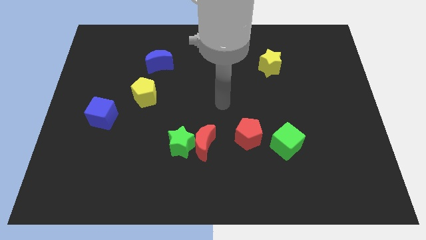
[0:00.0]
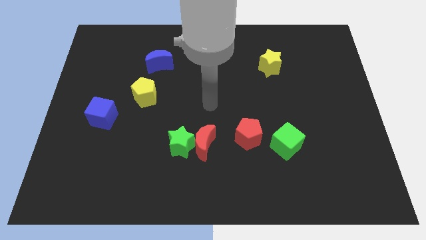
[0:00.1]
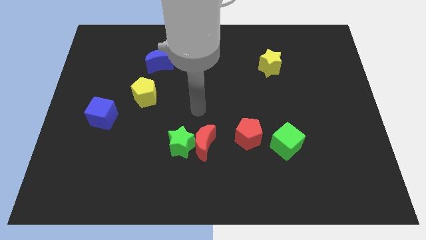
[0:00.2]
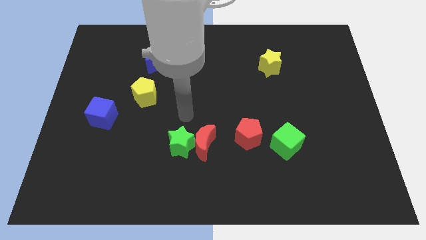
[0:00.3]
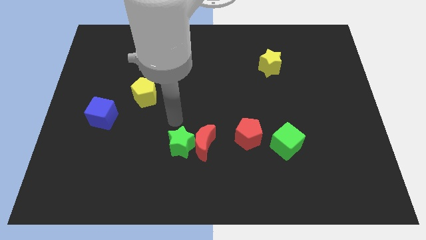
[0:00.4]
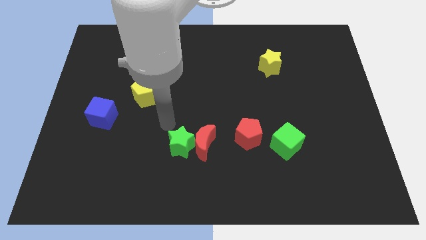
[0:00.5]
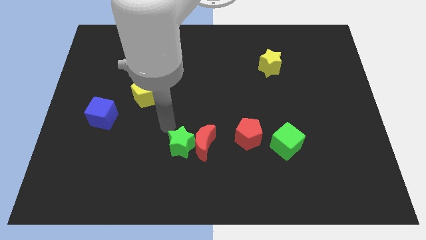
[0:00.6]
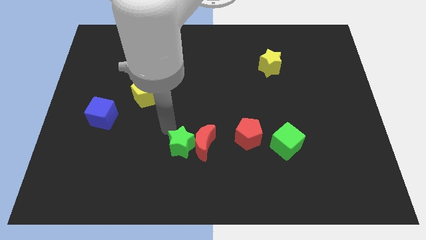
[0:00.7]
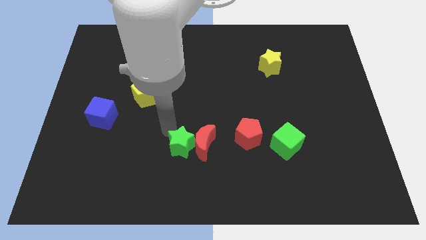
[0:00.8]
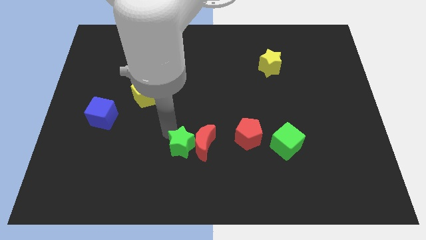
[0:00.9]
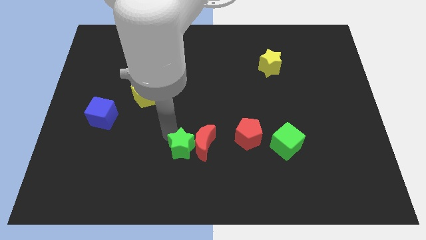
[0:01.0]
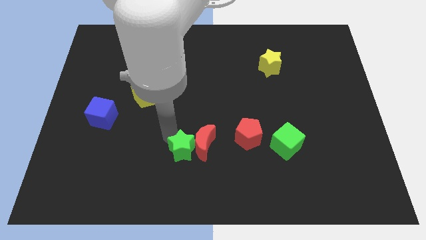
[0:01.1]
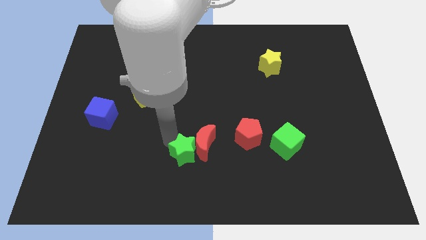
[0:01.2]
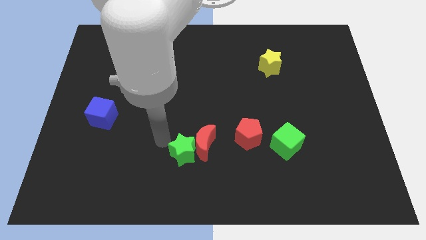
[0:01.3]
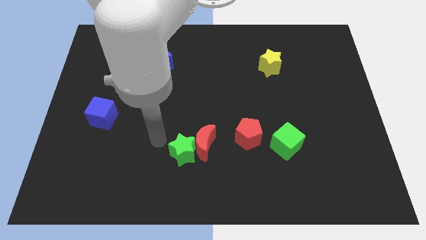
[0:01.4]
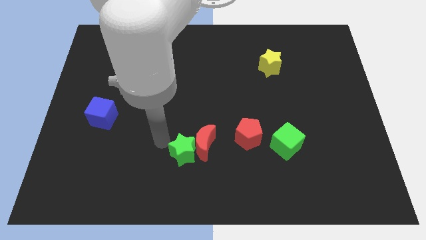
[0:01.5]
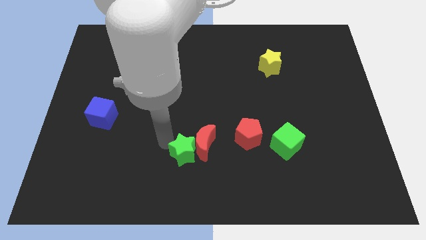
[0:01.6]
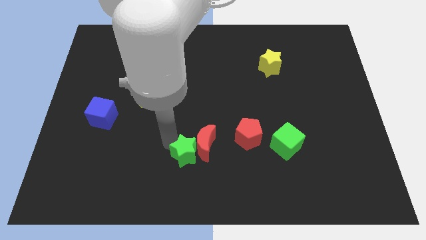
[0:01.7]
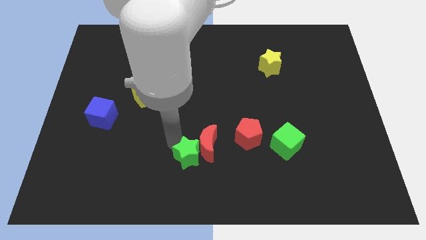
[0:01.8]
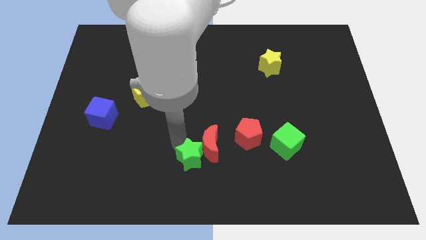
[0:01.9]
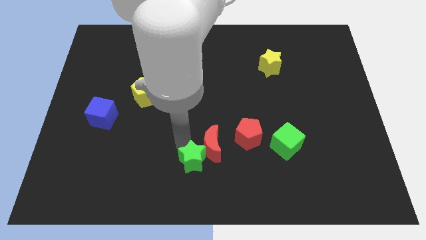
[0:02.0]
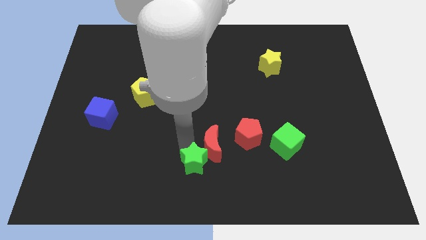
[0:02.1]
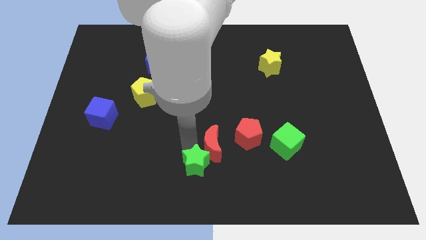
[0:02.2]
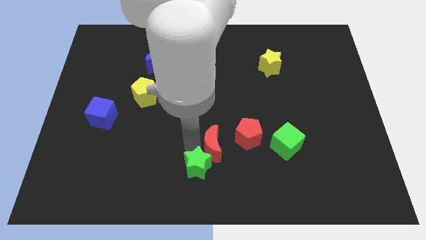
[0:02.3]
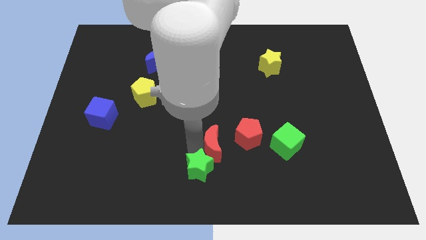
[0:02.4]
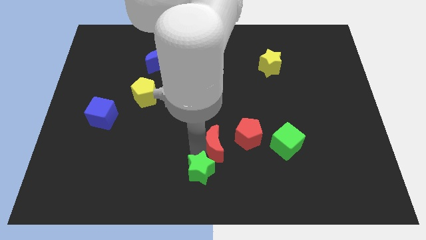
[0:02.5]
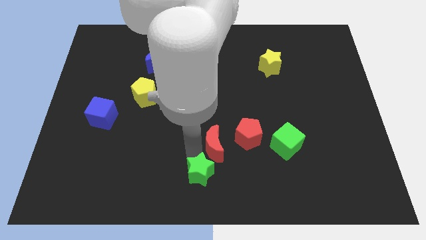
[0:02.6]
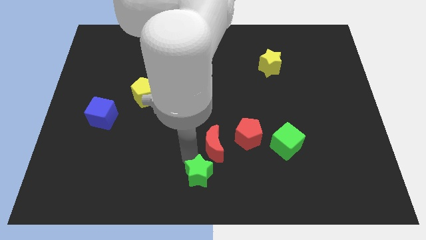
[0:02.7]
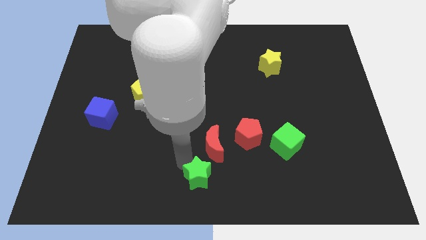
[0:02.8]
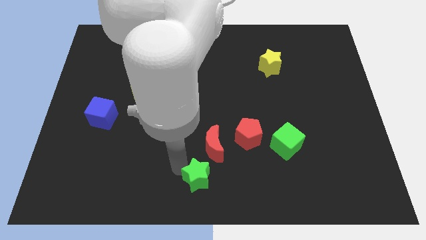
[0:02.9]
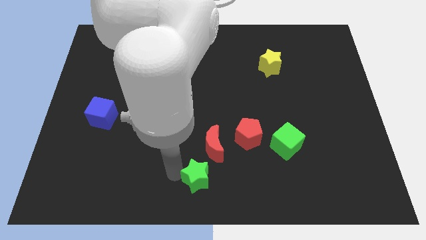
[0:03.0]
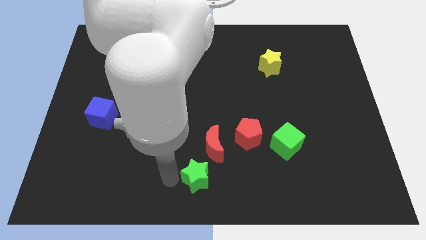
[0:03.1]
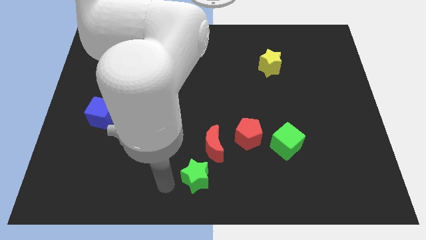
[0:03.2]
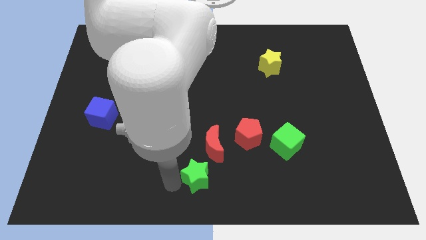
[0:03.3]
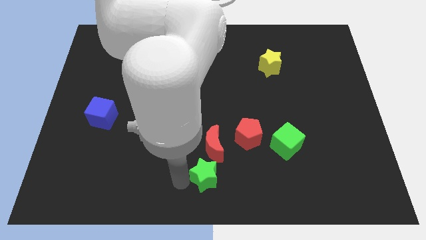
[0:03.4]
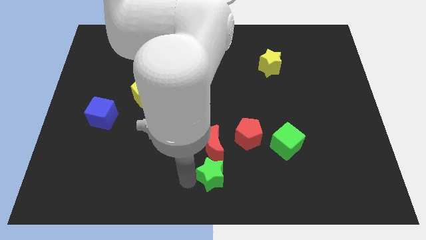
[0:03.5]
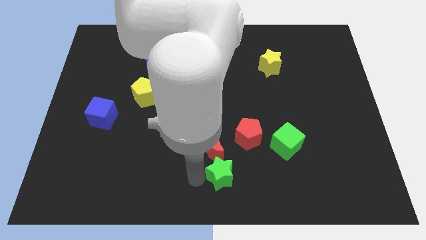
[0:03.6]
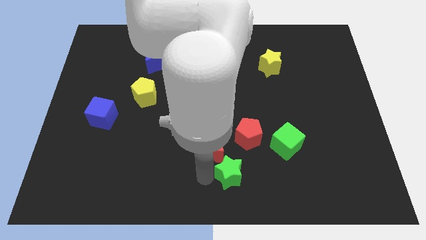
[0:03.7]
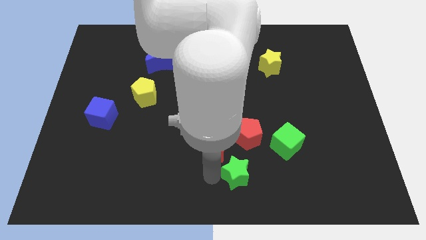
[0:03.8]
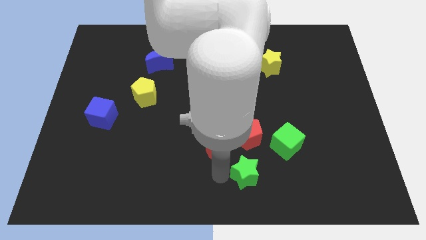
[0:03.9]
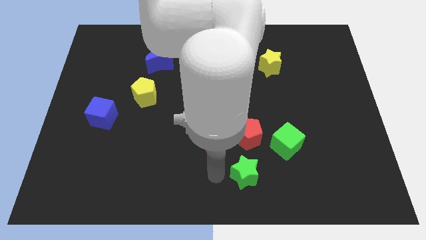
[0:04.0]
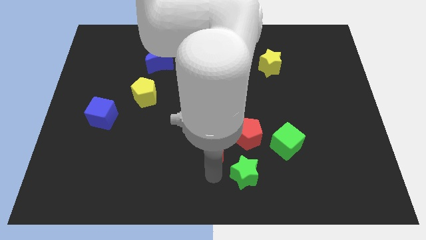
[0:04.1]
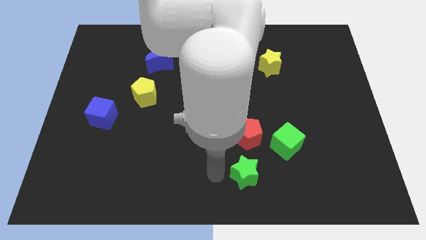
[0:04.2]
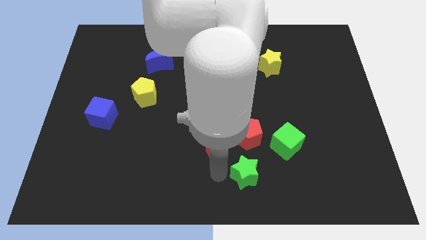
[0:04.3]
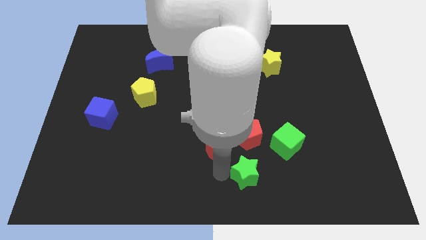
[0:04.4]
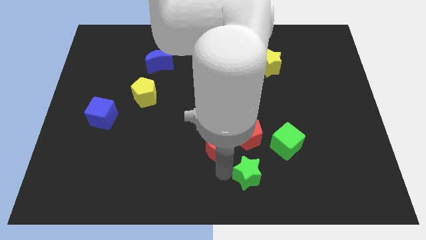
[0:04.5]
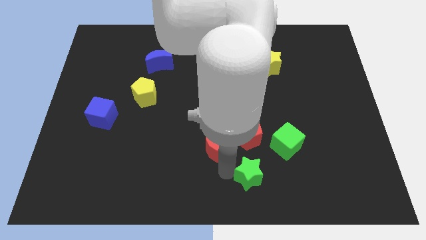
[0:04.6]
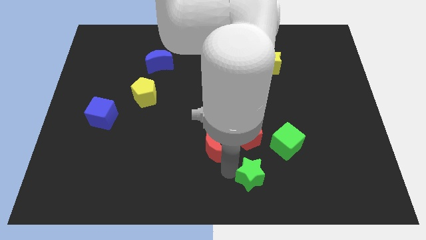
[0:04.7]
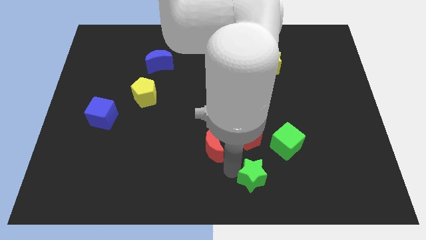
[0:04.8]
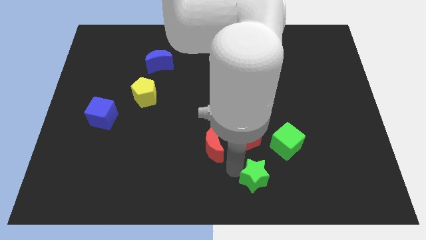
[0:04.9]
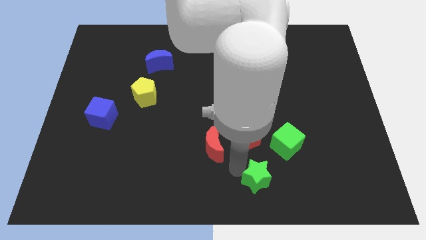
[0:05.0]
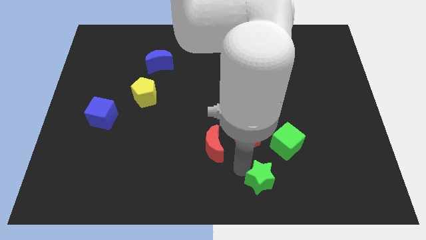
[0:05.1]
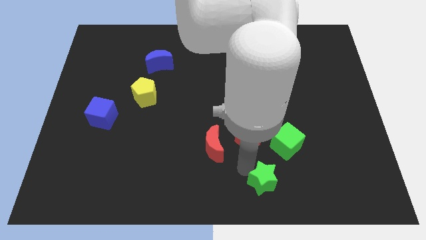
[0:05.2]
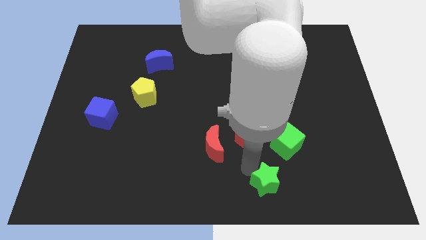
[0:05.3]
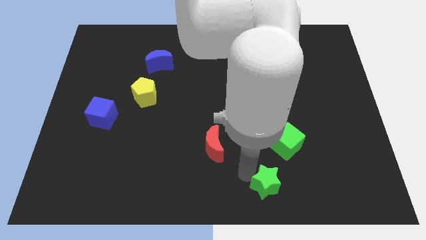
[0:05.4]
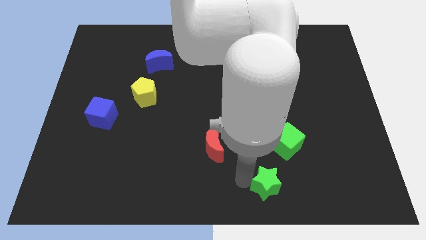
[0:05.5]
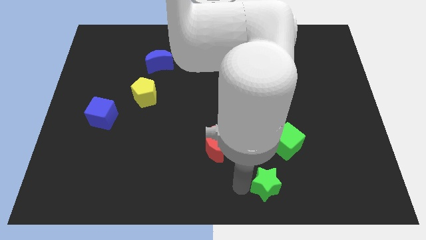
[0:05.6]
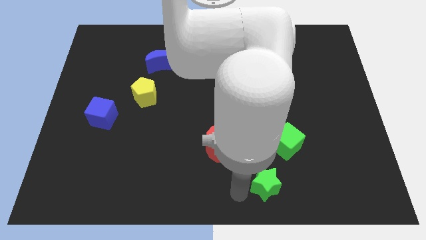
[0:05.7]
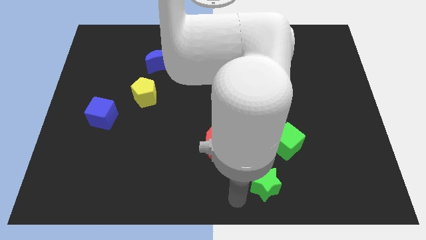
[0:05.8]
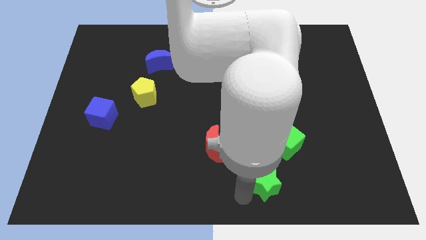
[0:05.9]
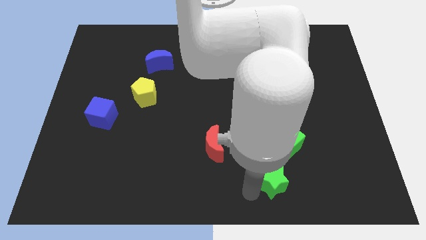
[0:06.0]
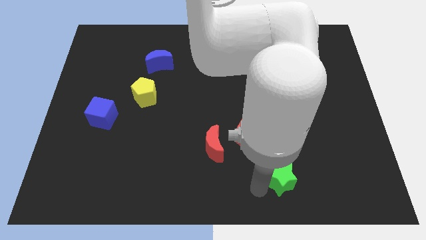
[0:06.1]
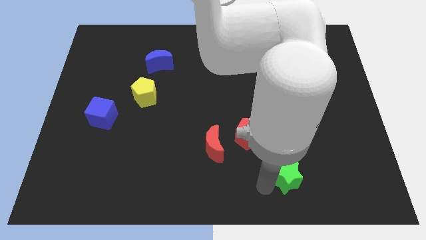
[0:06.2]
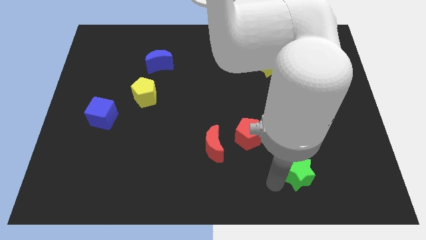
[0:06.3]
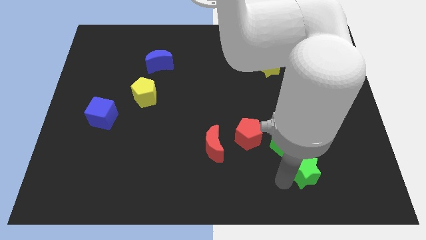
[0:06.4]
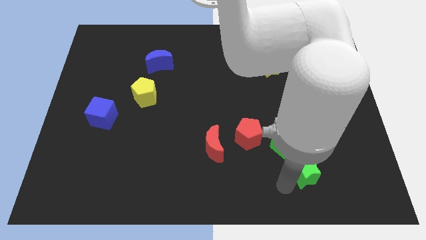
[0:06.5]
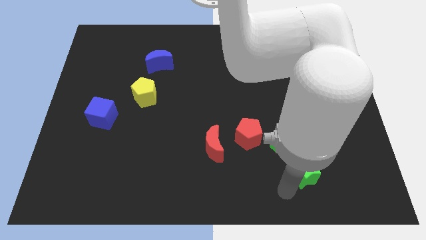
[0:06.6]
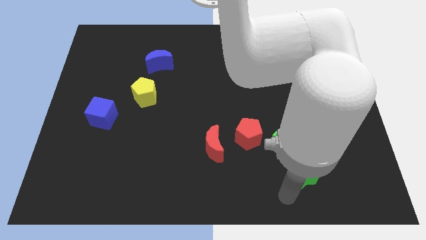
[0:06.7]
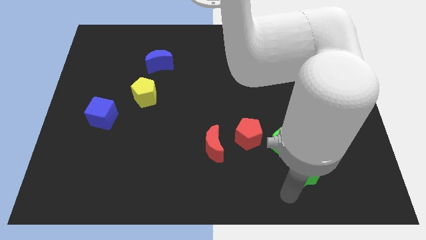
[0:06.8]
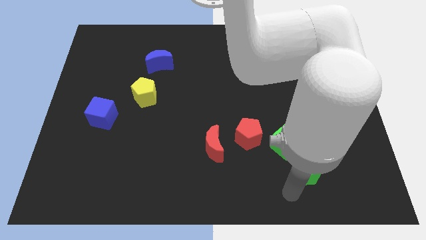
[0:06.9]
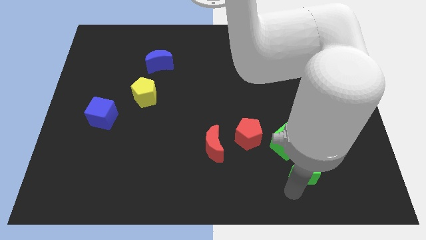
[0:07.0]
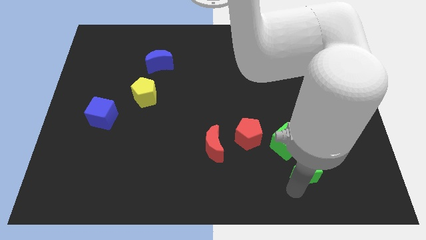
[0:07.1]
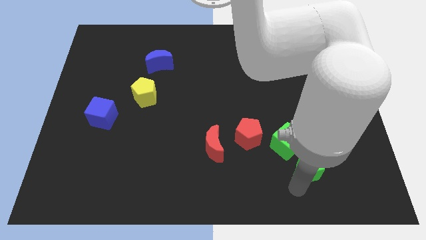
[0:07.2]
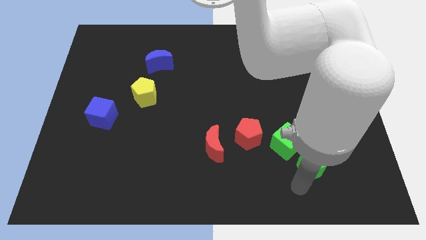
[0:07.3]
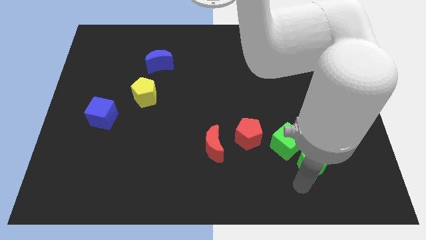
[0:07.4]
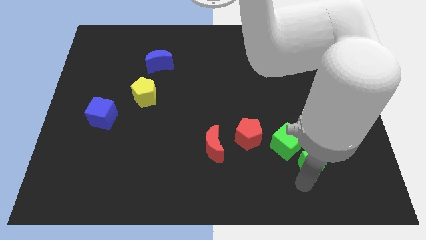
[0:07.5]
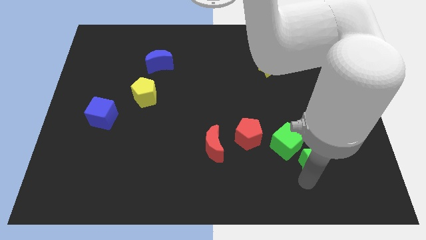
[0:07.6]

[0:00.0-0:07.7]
push the green star just right of the green cube
